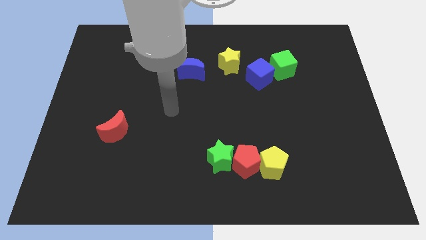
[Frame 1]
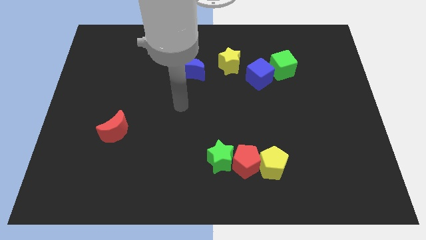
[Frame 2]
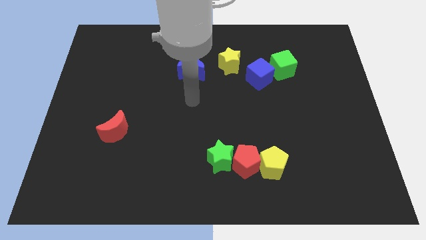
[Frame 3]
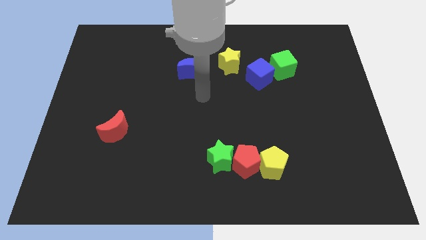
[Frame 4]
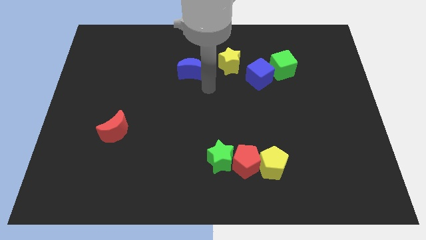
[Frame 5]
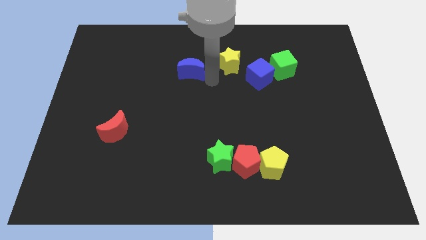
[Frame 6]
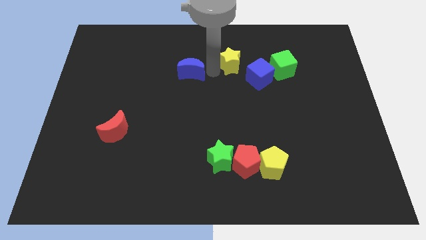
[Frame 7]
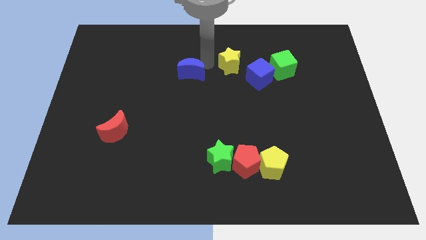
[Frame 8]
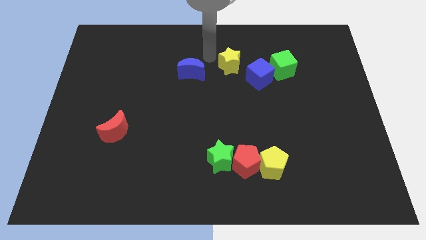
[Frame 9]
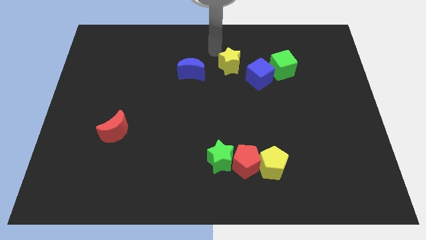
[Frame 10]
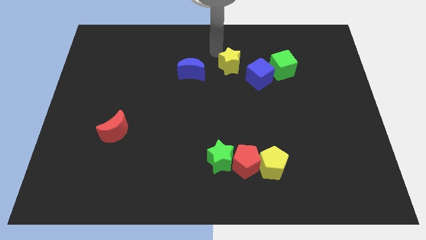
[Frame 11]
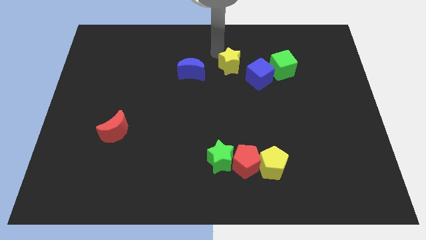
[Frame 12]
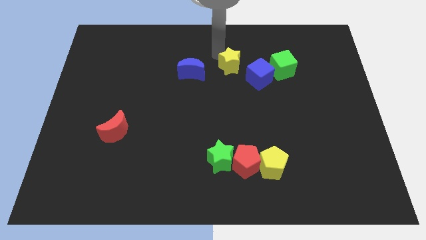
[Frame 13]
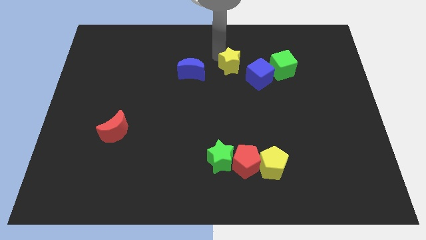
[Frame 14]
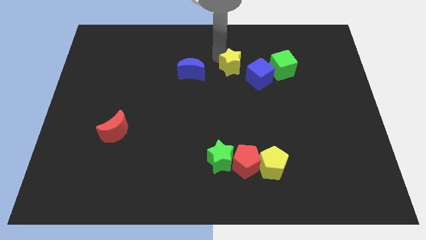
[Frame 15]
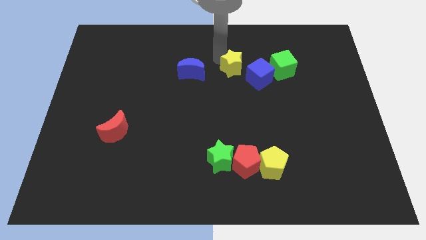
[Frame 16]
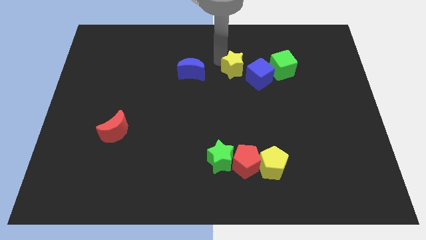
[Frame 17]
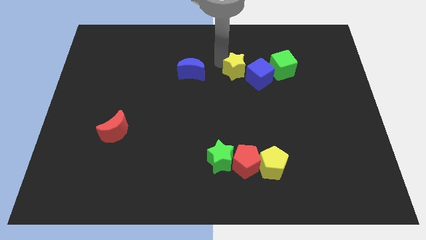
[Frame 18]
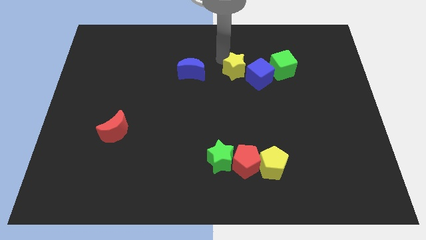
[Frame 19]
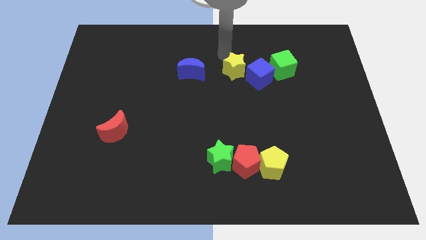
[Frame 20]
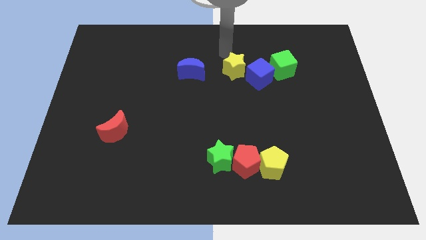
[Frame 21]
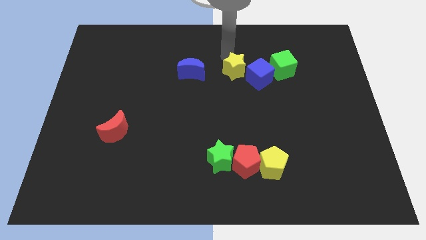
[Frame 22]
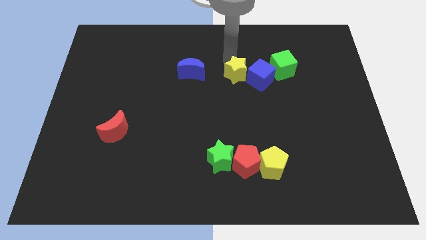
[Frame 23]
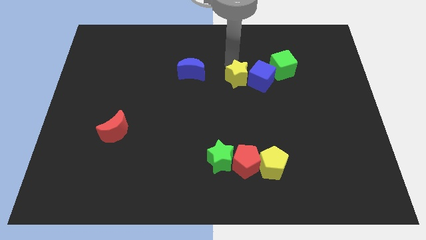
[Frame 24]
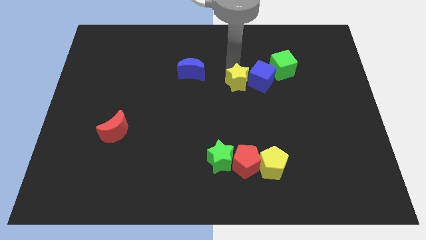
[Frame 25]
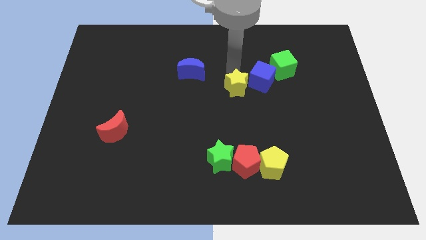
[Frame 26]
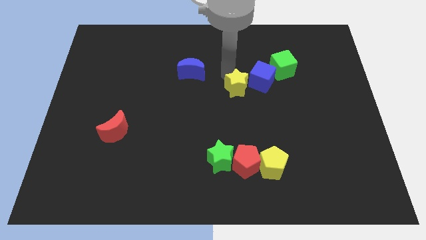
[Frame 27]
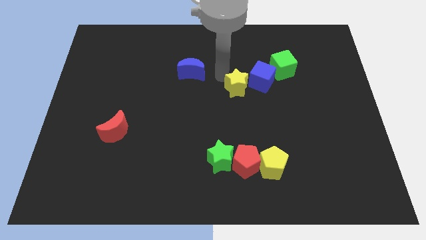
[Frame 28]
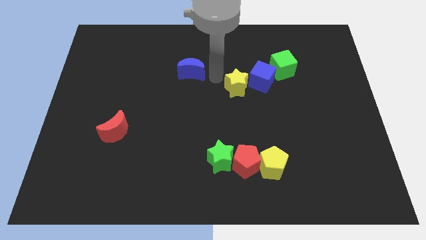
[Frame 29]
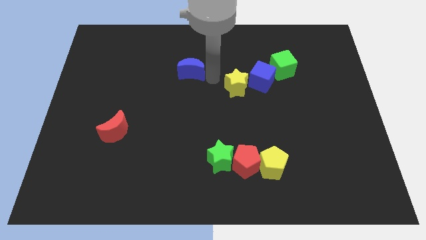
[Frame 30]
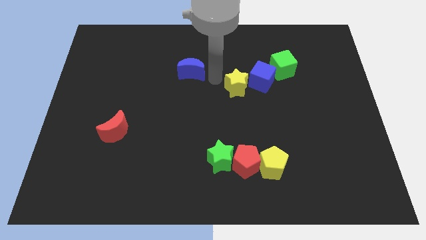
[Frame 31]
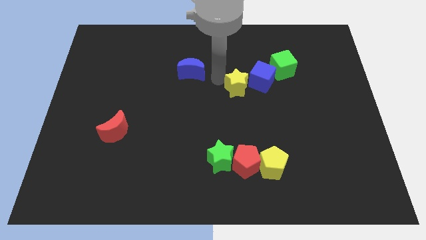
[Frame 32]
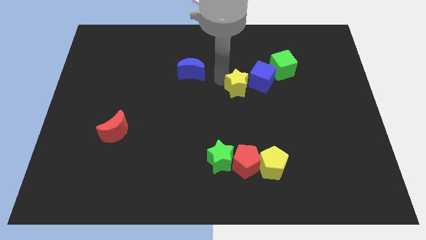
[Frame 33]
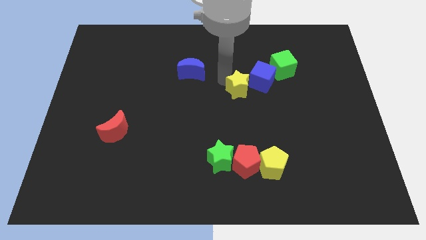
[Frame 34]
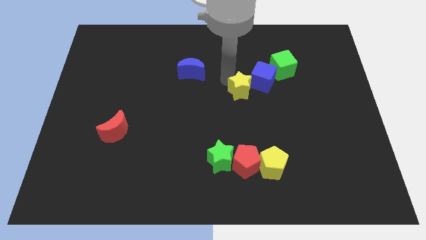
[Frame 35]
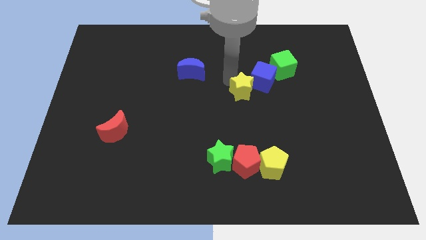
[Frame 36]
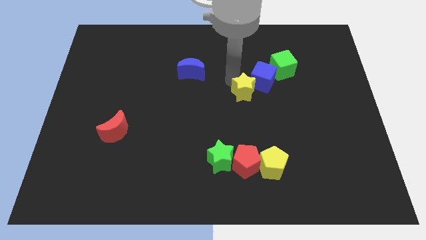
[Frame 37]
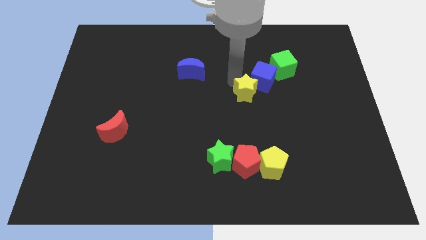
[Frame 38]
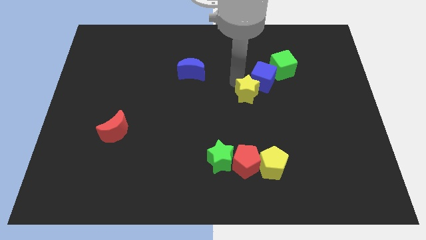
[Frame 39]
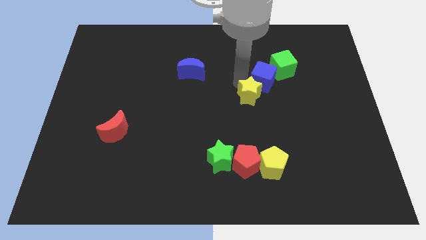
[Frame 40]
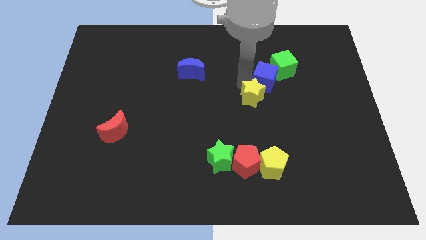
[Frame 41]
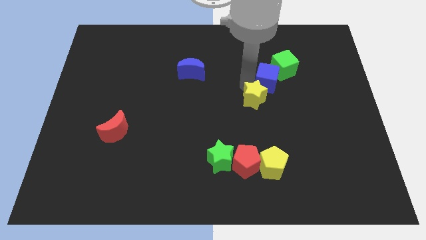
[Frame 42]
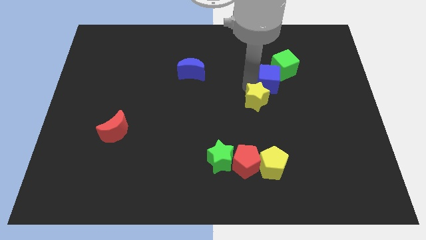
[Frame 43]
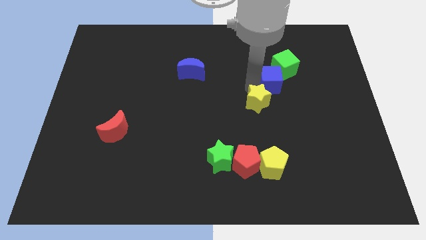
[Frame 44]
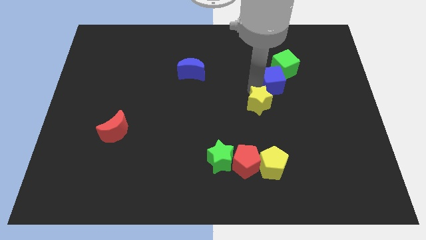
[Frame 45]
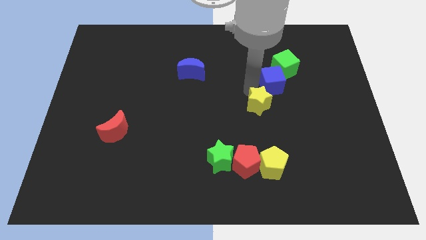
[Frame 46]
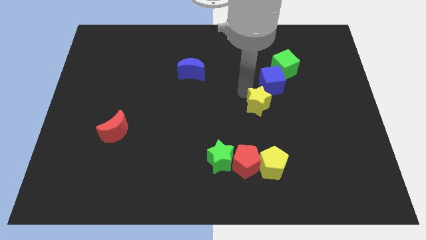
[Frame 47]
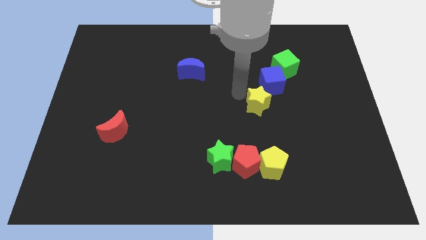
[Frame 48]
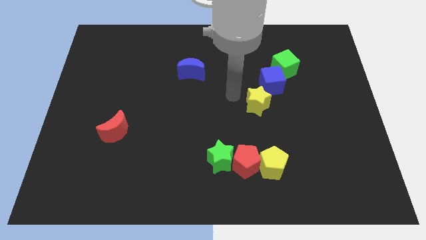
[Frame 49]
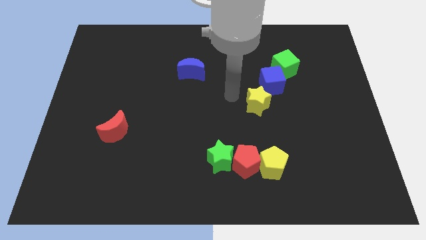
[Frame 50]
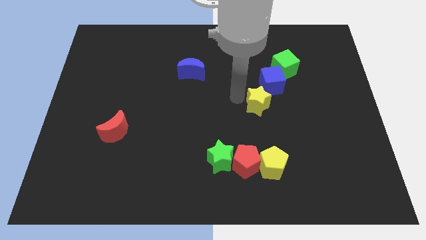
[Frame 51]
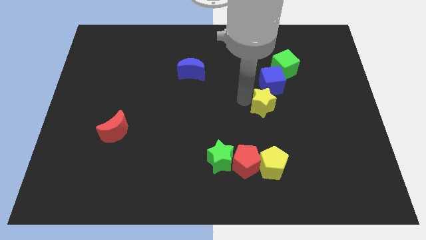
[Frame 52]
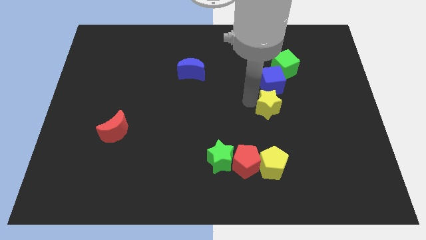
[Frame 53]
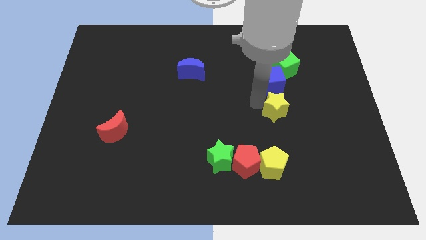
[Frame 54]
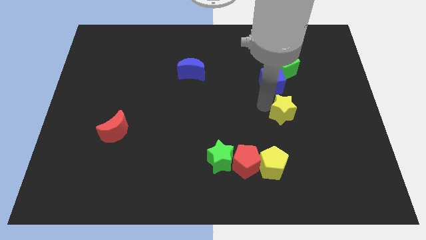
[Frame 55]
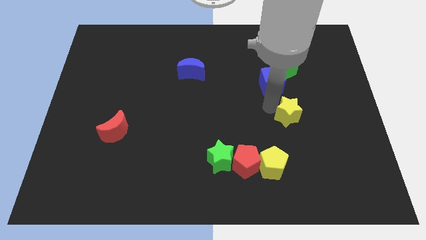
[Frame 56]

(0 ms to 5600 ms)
move the yellow star diagonally downwards and to the right

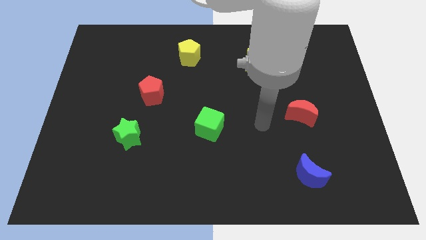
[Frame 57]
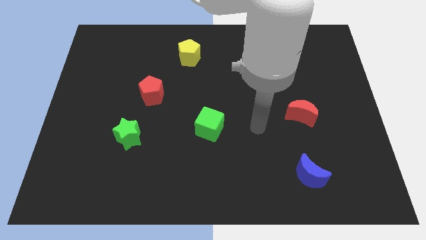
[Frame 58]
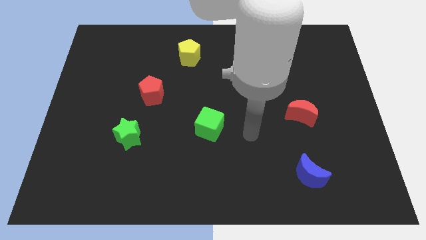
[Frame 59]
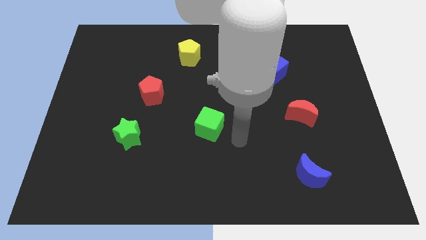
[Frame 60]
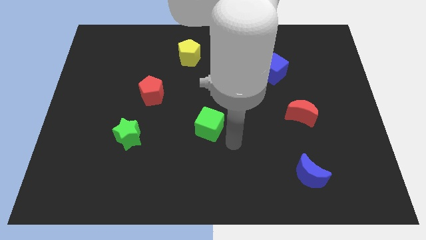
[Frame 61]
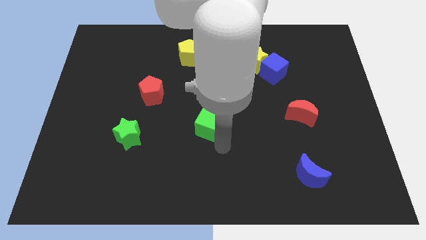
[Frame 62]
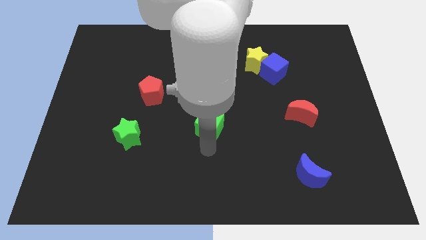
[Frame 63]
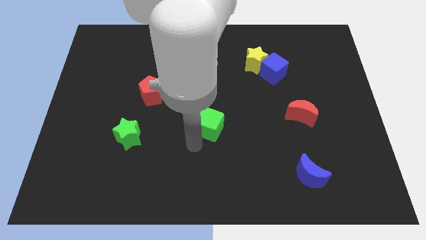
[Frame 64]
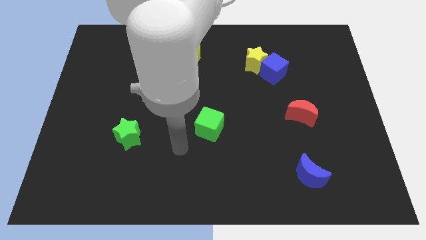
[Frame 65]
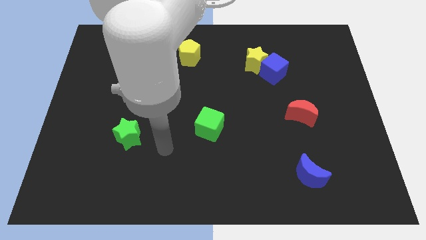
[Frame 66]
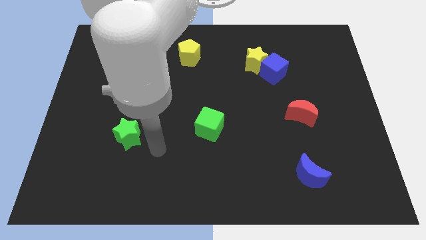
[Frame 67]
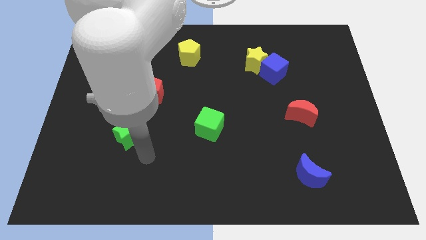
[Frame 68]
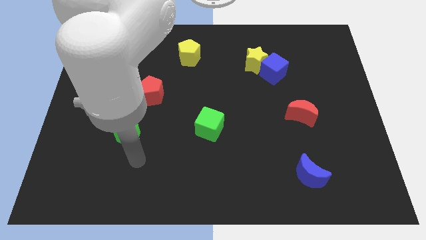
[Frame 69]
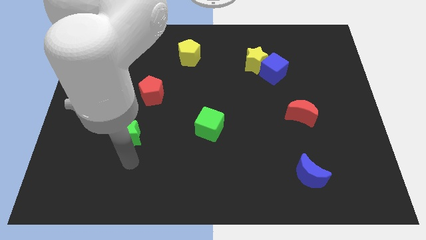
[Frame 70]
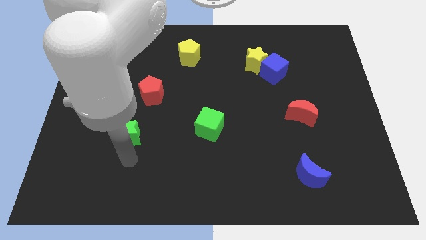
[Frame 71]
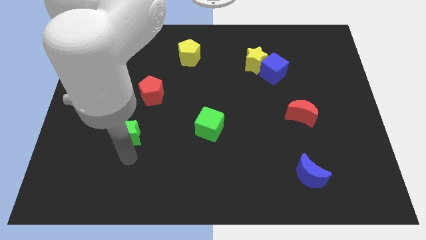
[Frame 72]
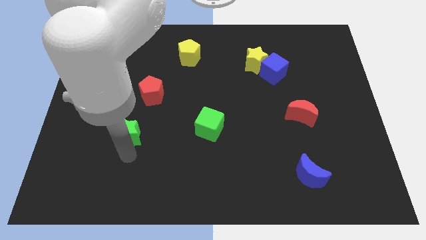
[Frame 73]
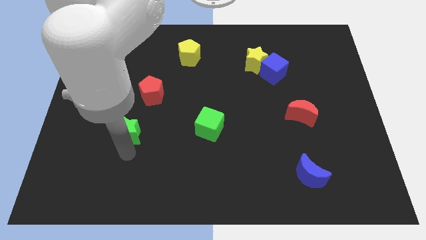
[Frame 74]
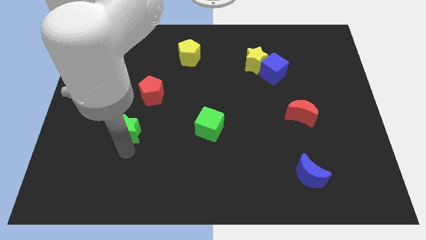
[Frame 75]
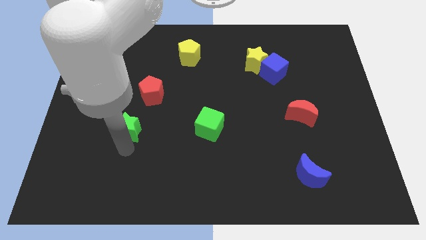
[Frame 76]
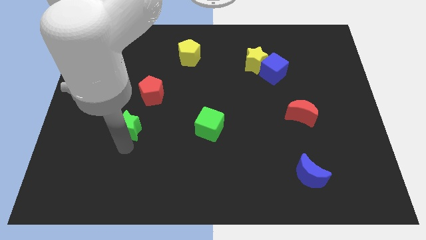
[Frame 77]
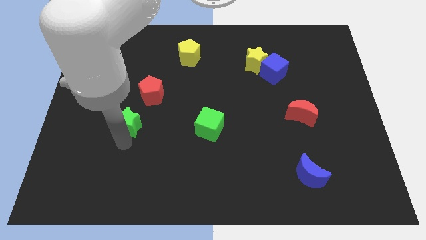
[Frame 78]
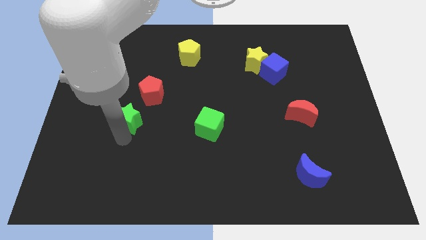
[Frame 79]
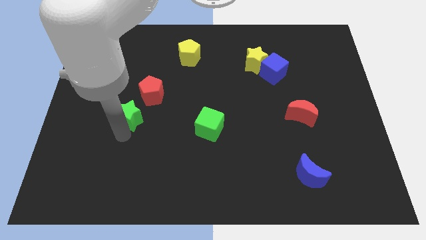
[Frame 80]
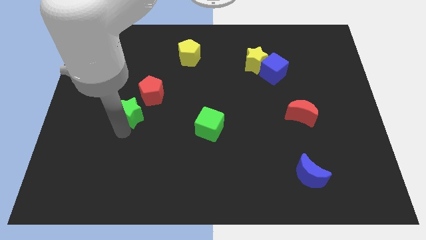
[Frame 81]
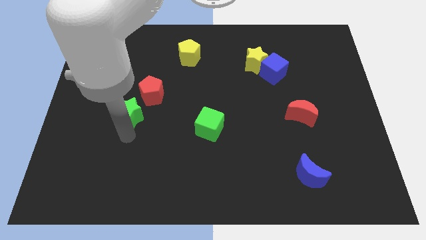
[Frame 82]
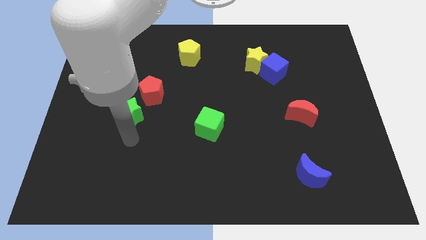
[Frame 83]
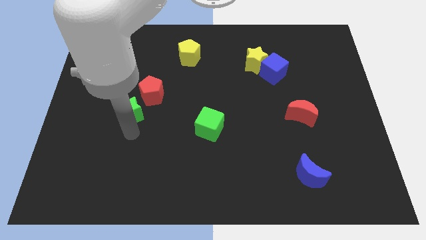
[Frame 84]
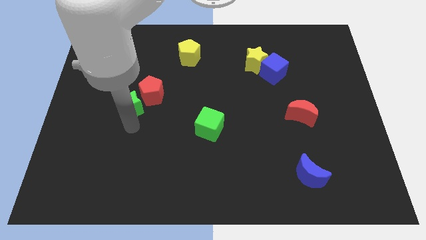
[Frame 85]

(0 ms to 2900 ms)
slide the green star a little up
